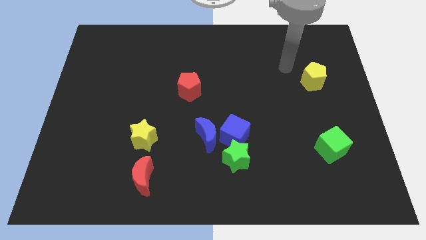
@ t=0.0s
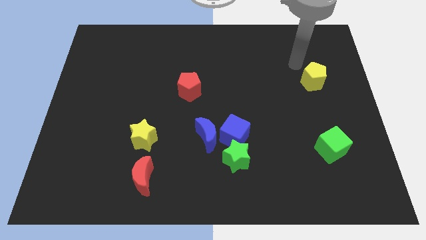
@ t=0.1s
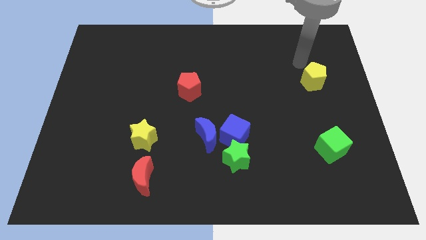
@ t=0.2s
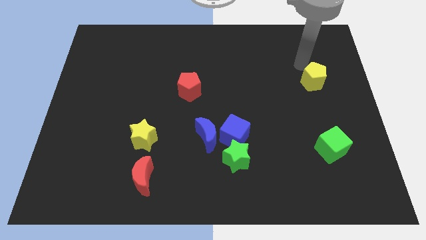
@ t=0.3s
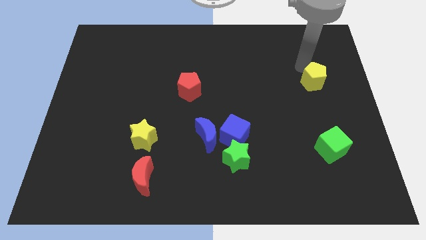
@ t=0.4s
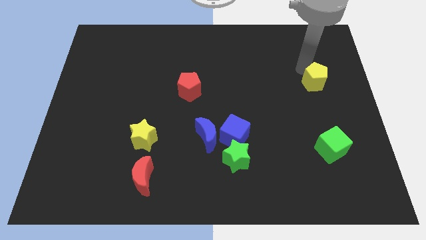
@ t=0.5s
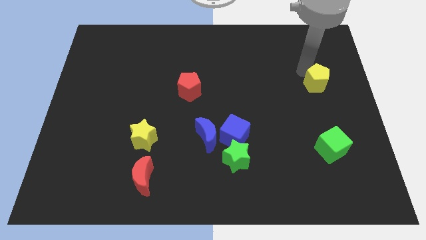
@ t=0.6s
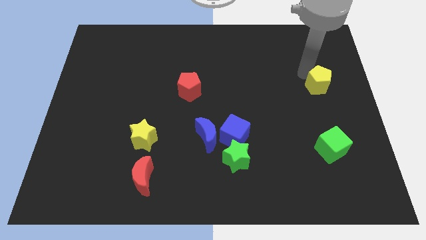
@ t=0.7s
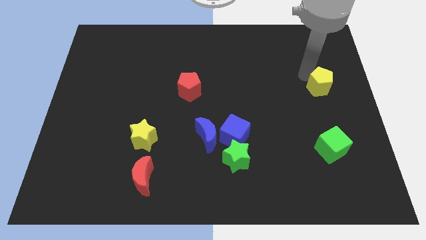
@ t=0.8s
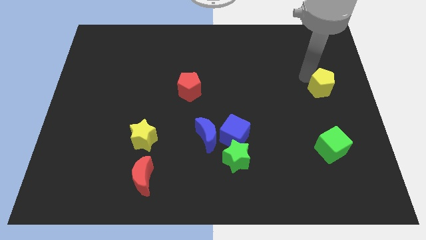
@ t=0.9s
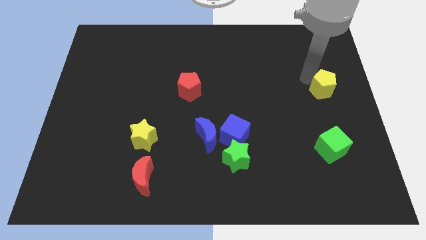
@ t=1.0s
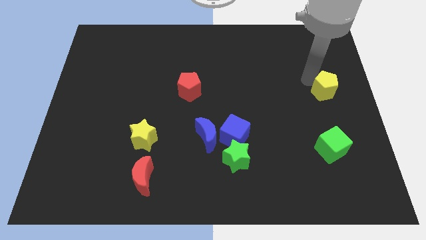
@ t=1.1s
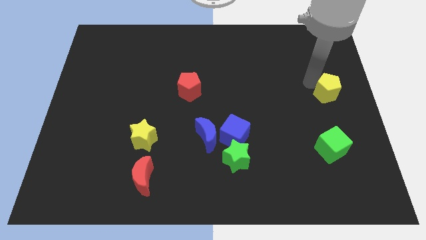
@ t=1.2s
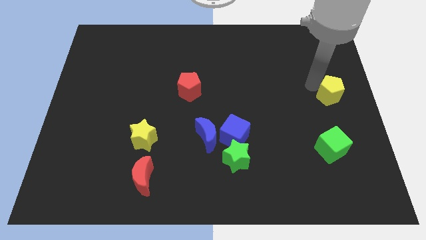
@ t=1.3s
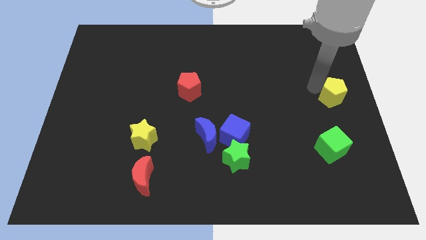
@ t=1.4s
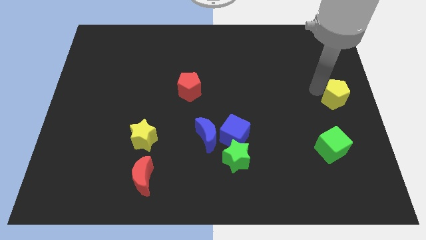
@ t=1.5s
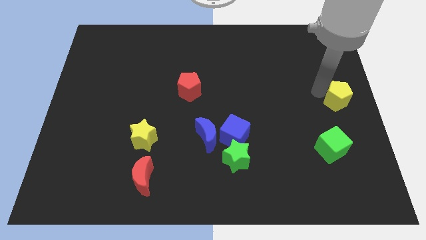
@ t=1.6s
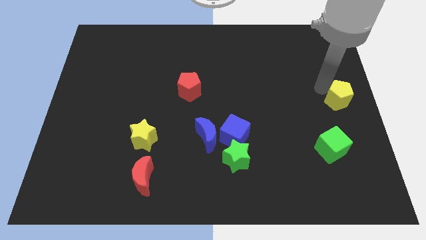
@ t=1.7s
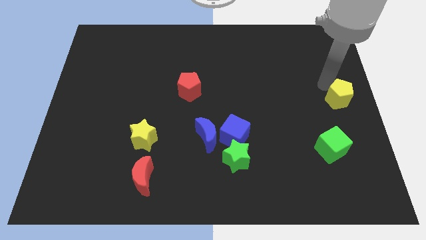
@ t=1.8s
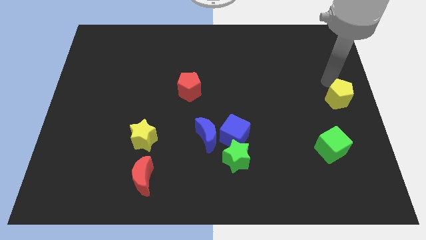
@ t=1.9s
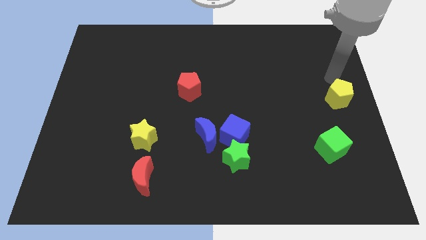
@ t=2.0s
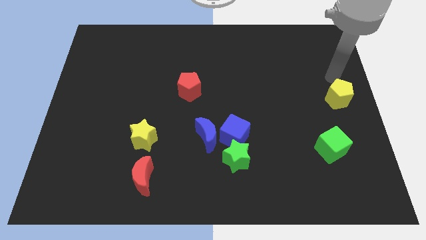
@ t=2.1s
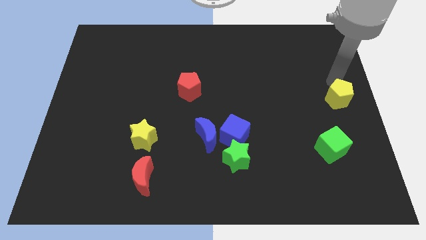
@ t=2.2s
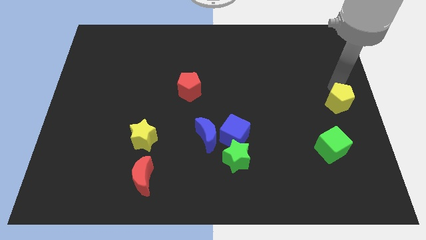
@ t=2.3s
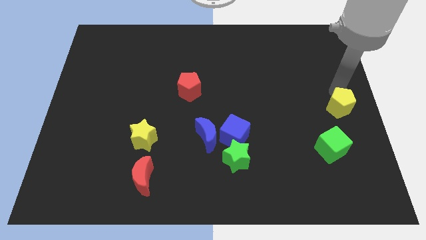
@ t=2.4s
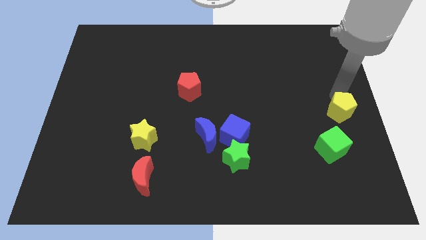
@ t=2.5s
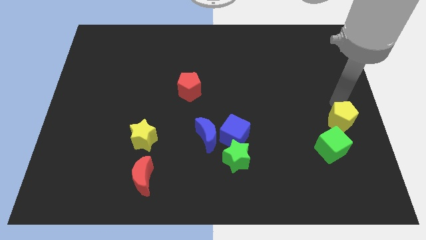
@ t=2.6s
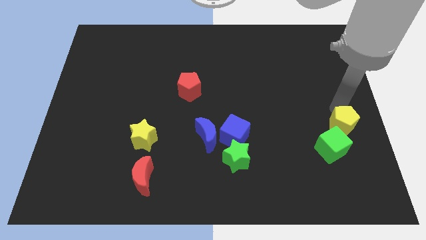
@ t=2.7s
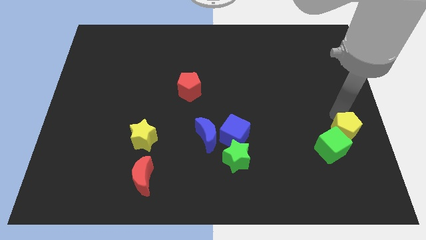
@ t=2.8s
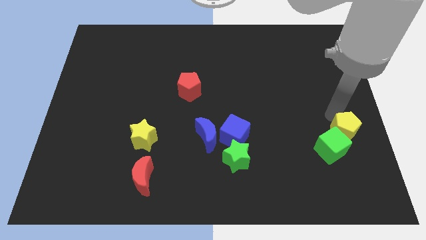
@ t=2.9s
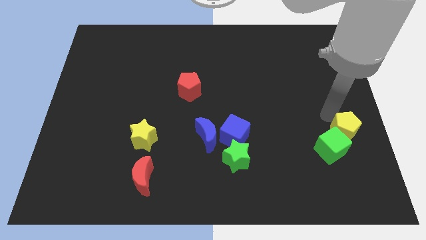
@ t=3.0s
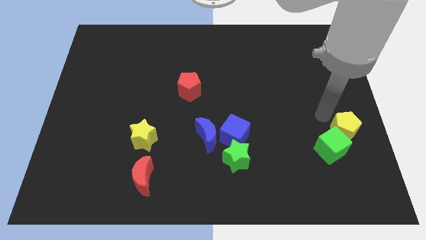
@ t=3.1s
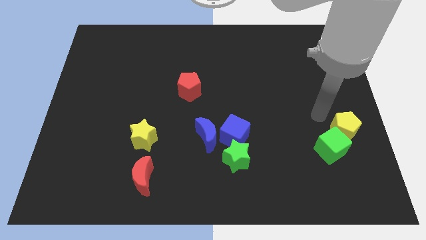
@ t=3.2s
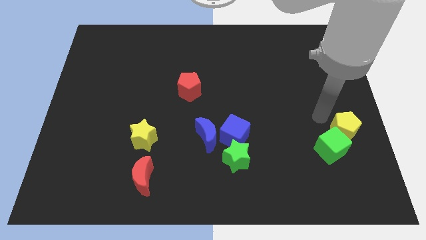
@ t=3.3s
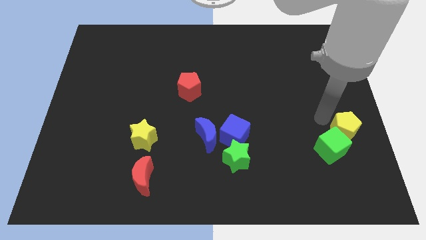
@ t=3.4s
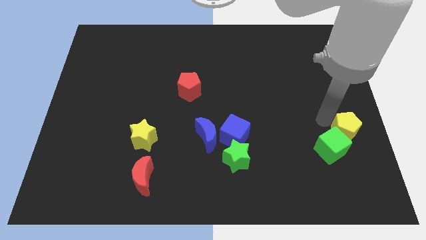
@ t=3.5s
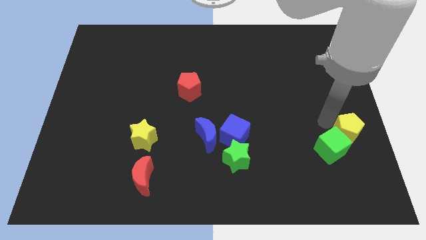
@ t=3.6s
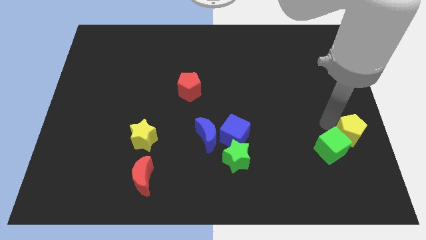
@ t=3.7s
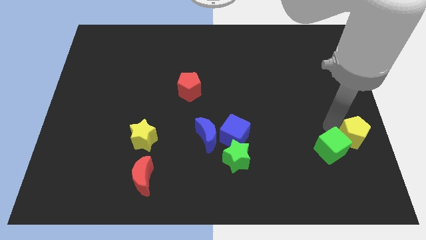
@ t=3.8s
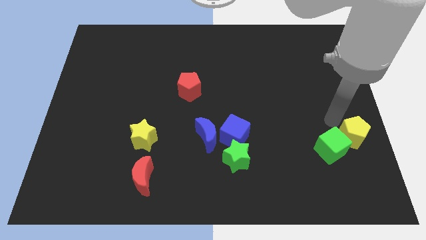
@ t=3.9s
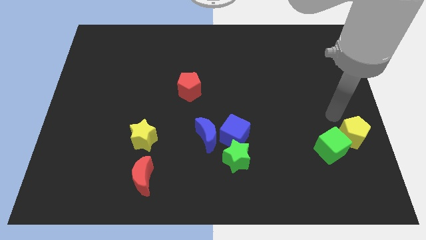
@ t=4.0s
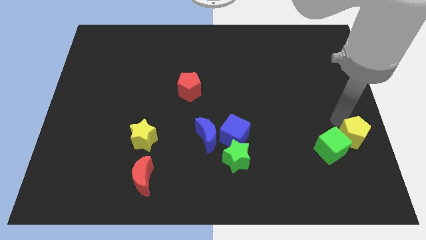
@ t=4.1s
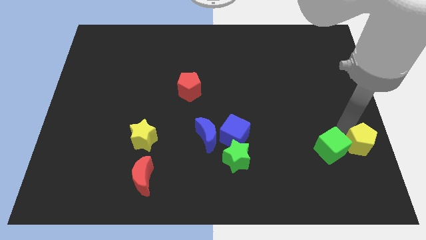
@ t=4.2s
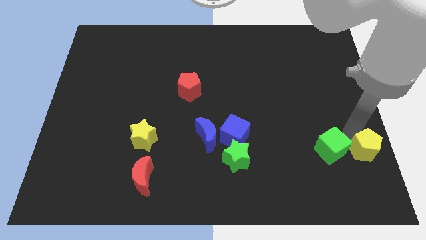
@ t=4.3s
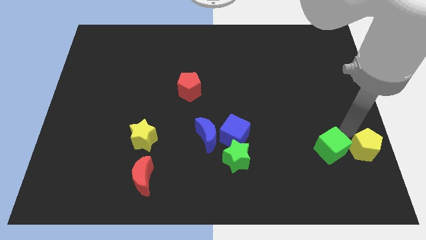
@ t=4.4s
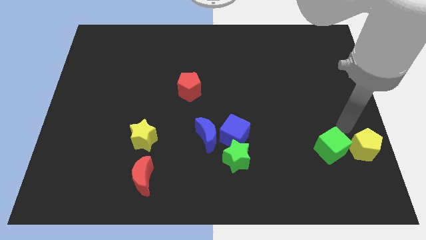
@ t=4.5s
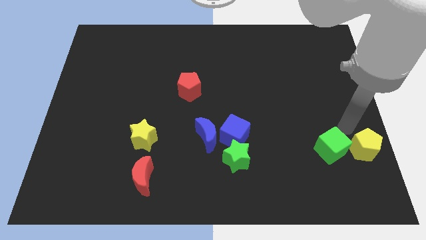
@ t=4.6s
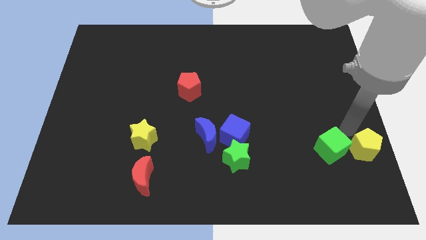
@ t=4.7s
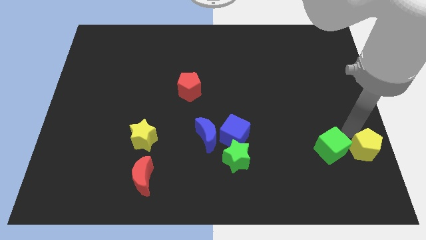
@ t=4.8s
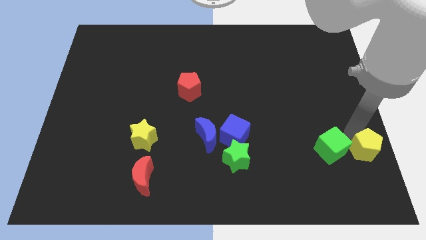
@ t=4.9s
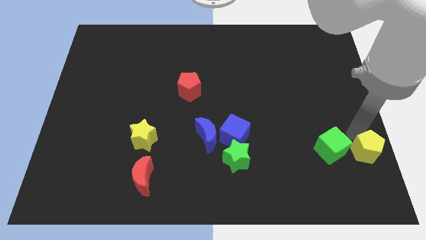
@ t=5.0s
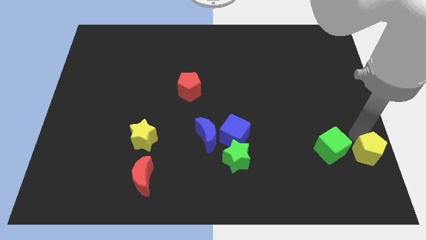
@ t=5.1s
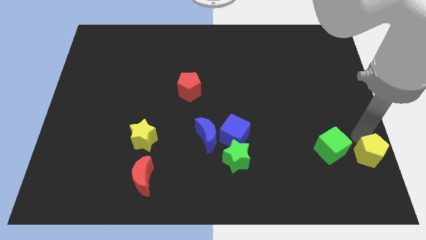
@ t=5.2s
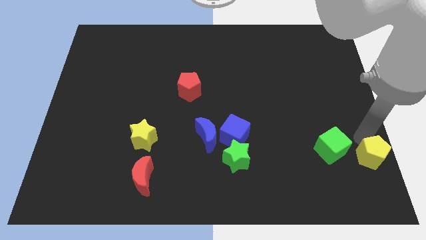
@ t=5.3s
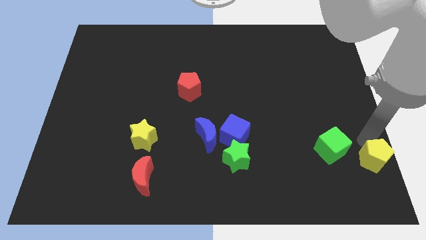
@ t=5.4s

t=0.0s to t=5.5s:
put the yellow pentagon to the lower right corner
